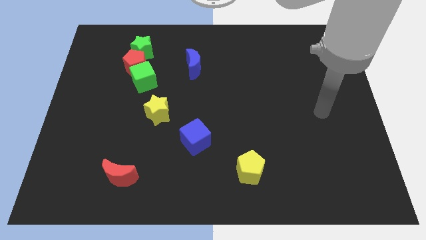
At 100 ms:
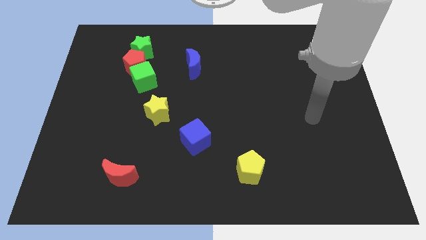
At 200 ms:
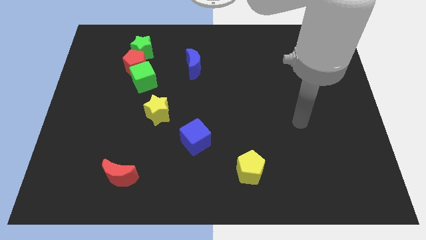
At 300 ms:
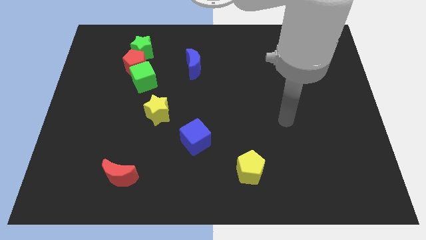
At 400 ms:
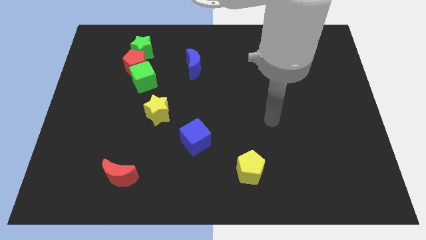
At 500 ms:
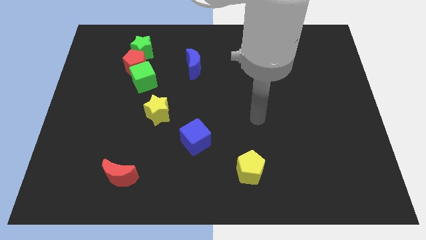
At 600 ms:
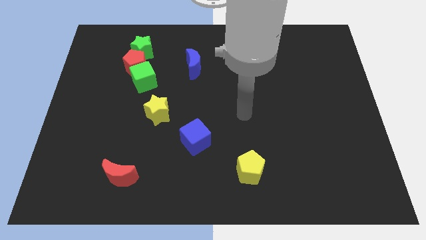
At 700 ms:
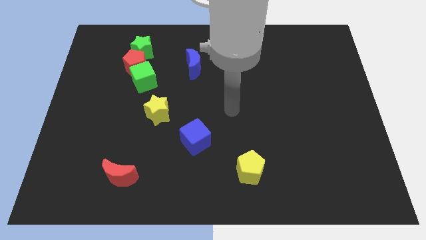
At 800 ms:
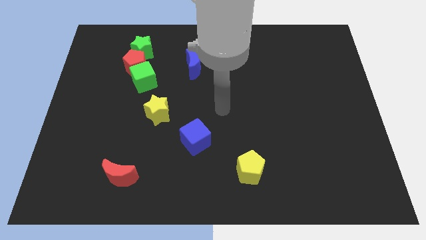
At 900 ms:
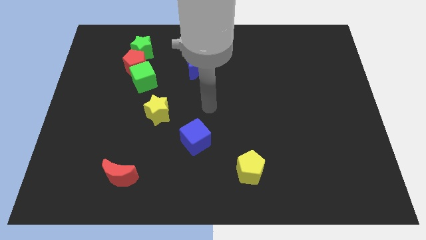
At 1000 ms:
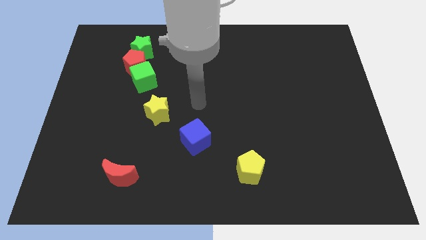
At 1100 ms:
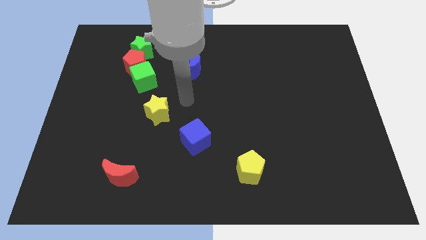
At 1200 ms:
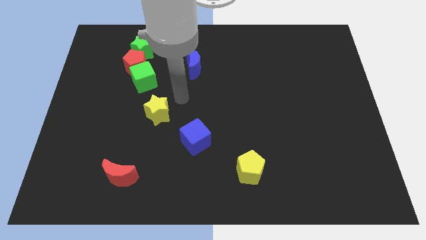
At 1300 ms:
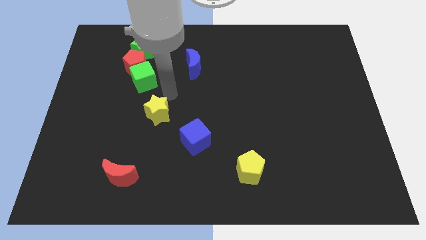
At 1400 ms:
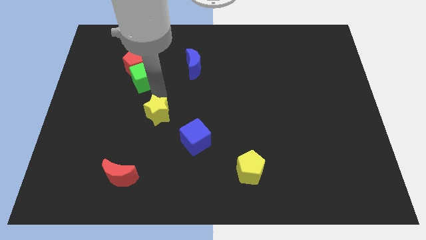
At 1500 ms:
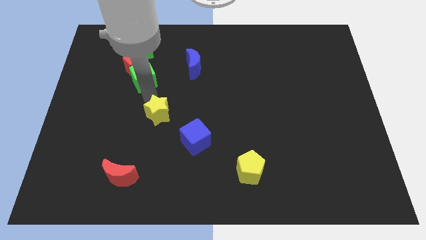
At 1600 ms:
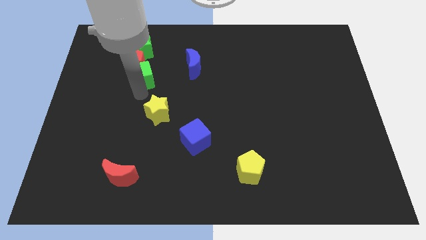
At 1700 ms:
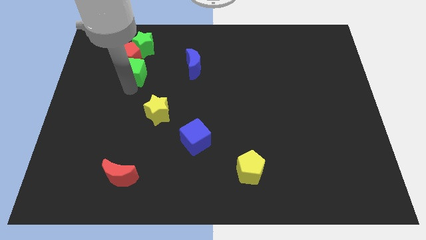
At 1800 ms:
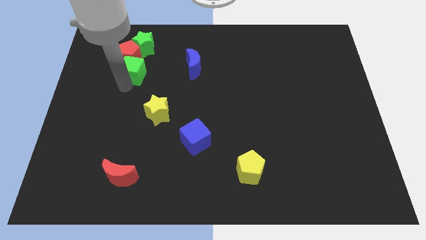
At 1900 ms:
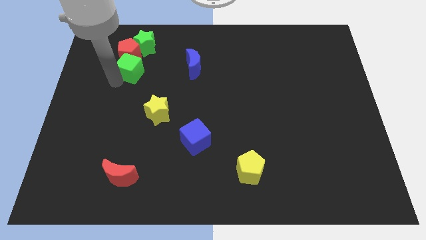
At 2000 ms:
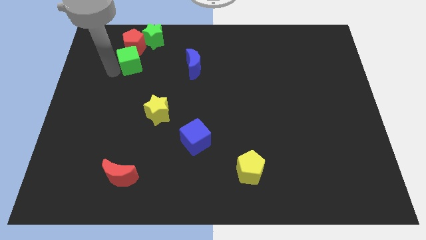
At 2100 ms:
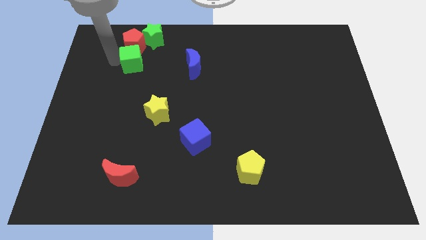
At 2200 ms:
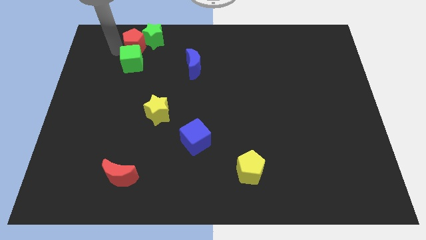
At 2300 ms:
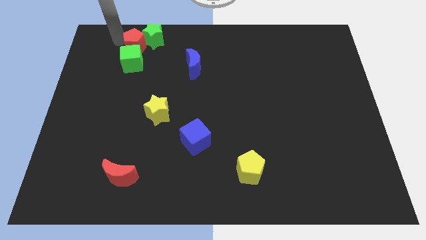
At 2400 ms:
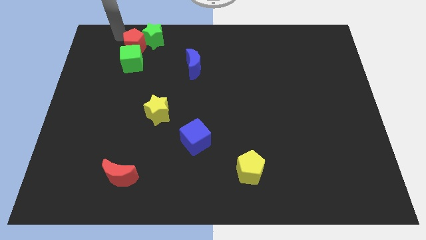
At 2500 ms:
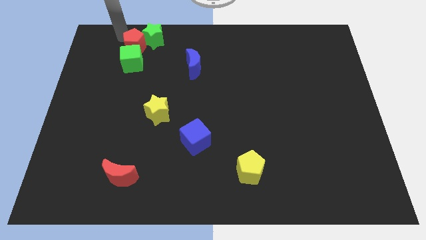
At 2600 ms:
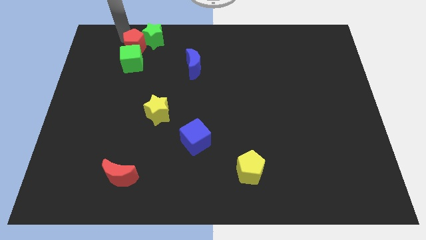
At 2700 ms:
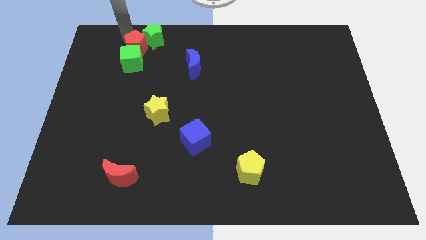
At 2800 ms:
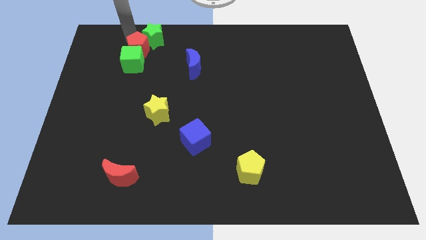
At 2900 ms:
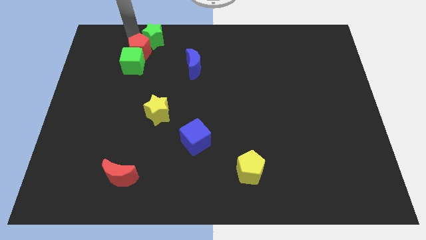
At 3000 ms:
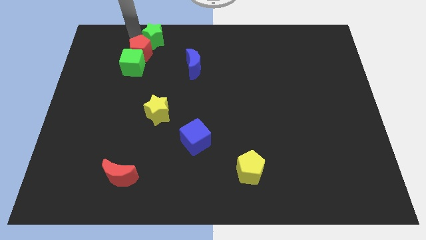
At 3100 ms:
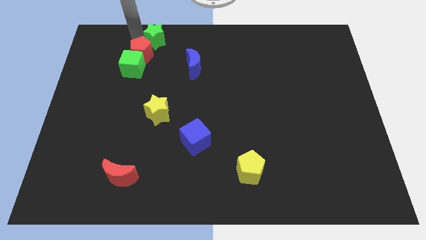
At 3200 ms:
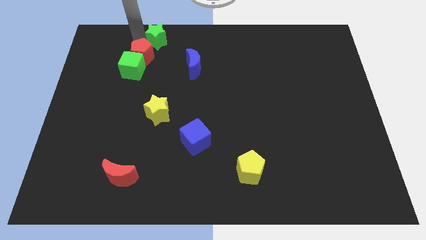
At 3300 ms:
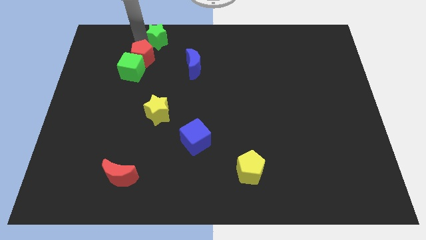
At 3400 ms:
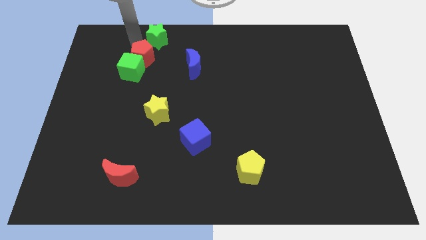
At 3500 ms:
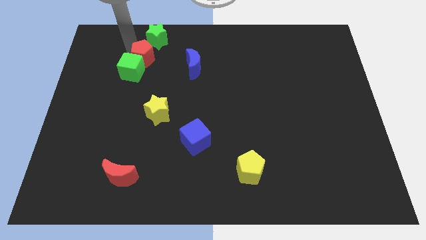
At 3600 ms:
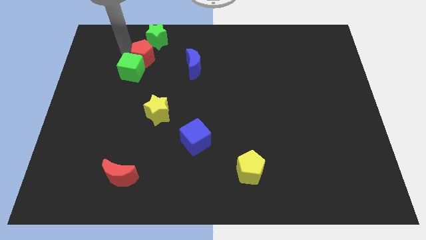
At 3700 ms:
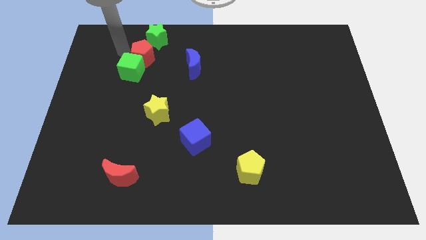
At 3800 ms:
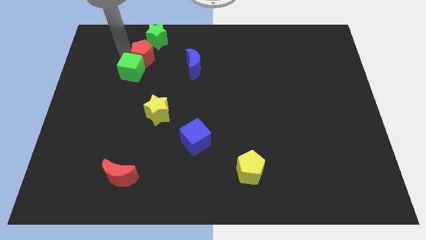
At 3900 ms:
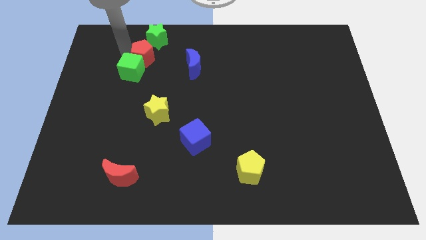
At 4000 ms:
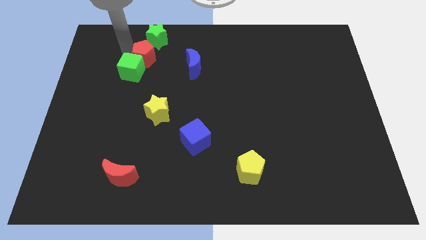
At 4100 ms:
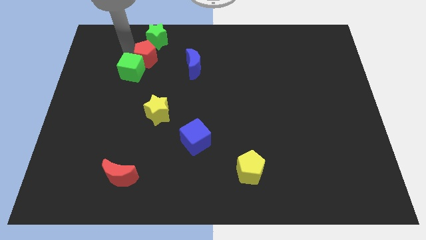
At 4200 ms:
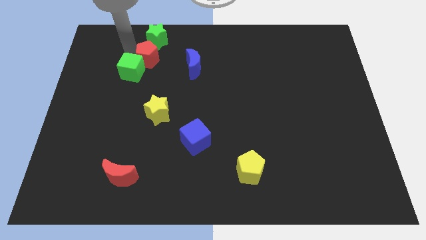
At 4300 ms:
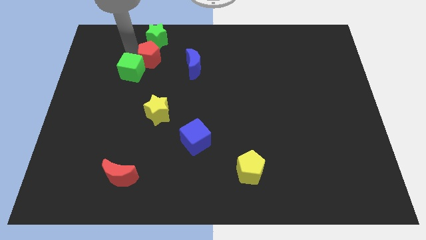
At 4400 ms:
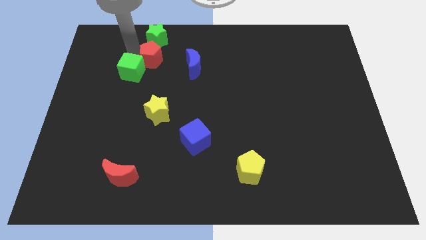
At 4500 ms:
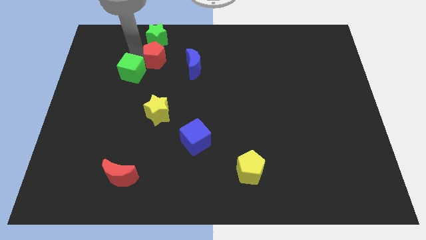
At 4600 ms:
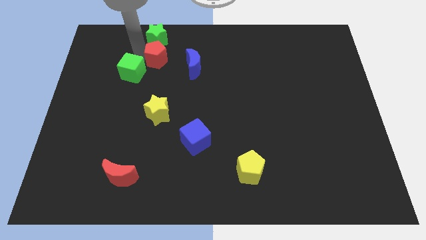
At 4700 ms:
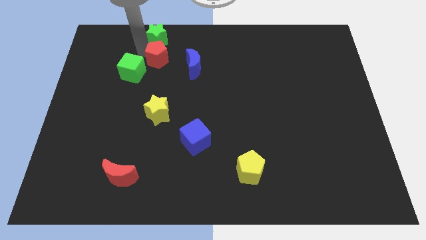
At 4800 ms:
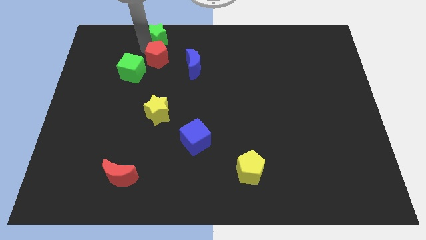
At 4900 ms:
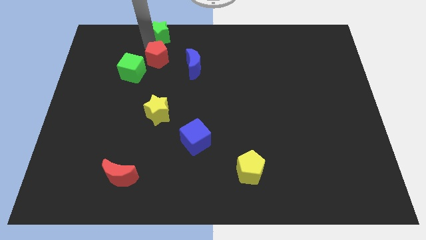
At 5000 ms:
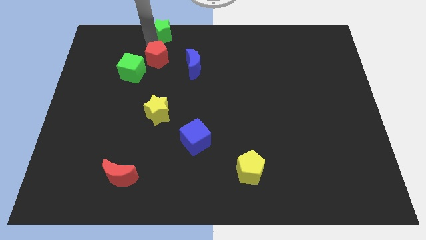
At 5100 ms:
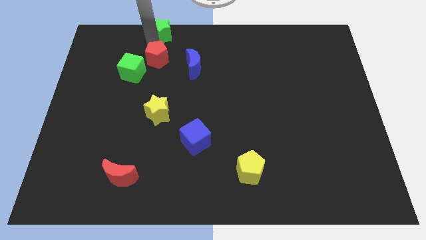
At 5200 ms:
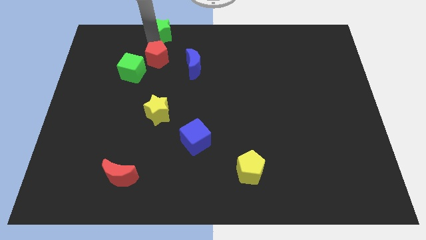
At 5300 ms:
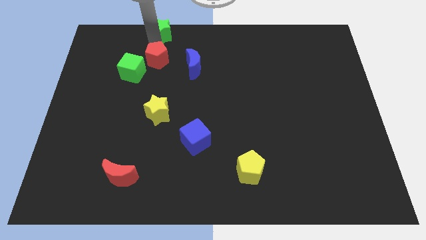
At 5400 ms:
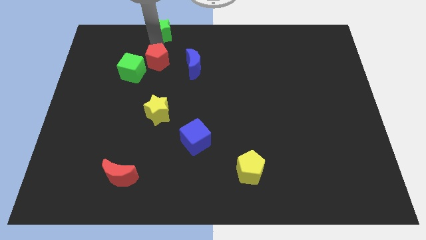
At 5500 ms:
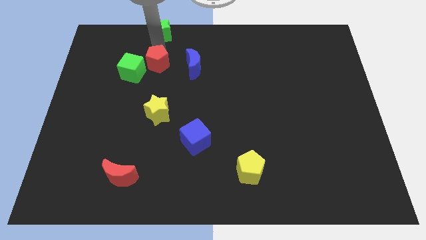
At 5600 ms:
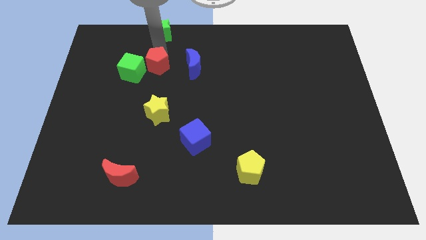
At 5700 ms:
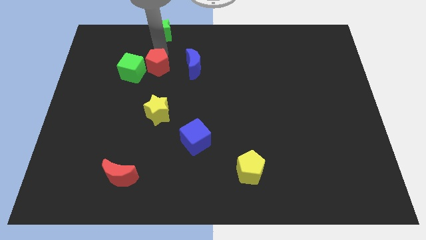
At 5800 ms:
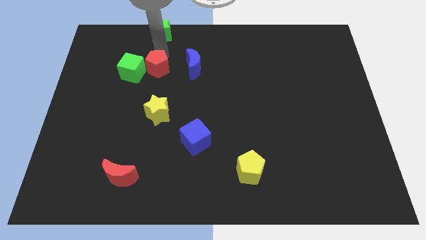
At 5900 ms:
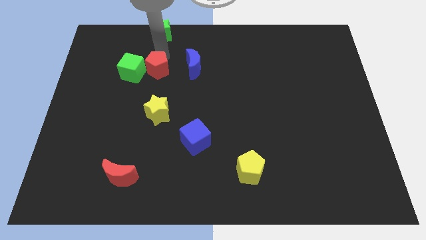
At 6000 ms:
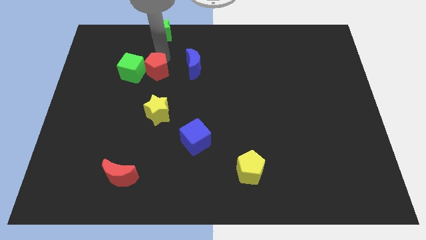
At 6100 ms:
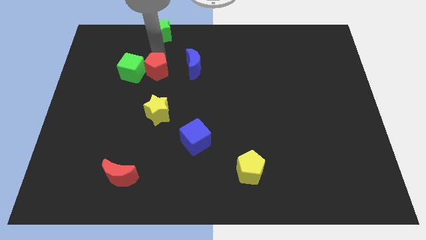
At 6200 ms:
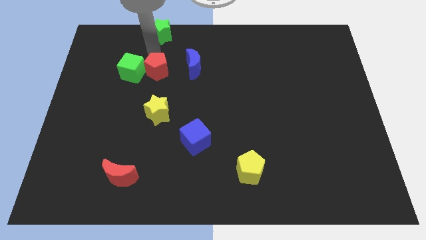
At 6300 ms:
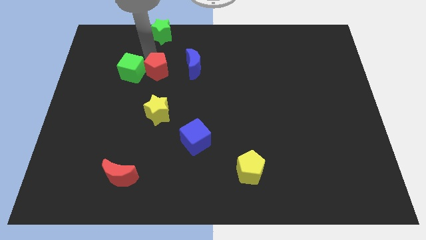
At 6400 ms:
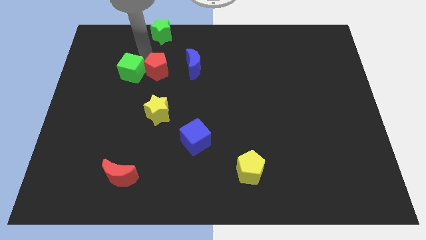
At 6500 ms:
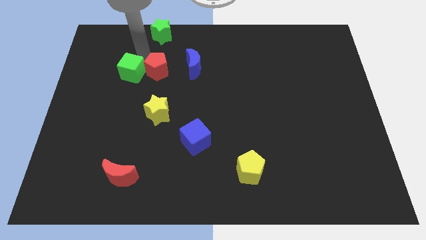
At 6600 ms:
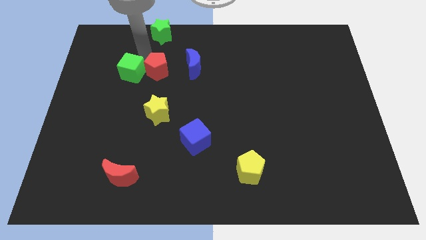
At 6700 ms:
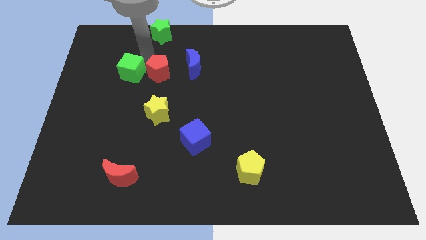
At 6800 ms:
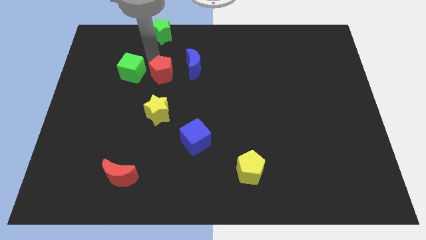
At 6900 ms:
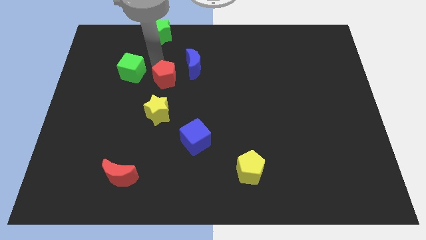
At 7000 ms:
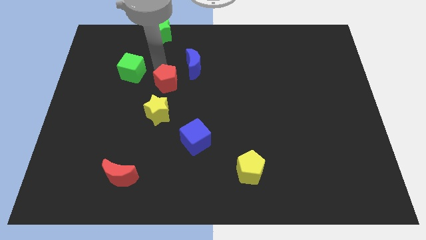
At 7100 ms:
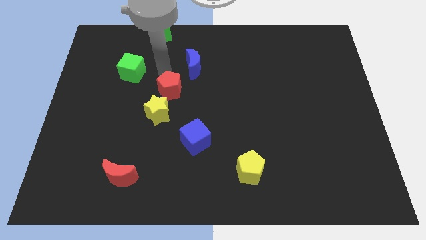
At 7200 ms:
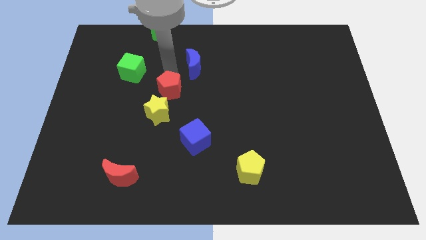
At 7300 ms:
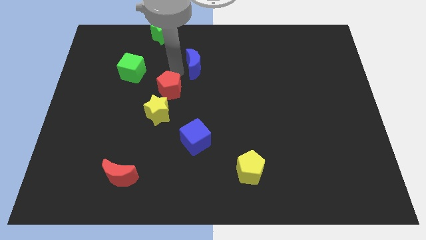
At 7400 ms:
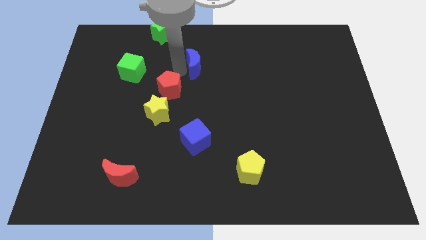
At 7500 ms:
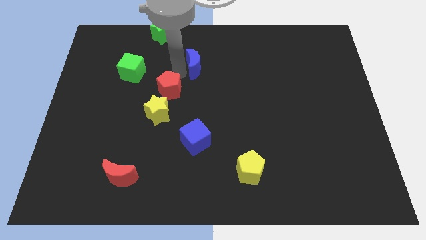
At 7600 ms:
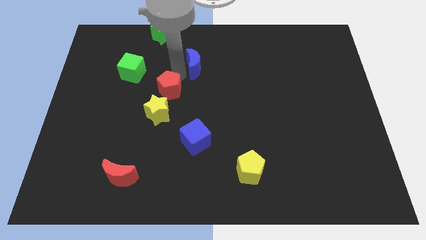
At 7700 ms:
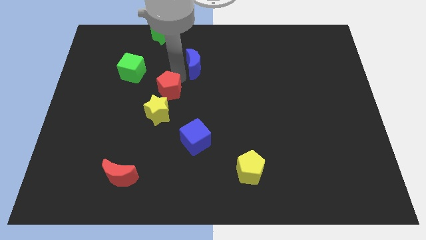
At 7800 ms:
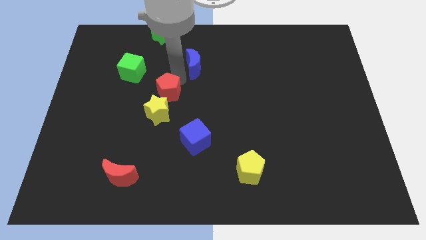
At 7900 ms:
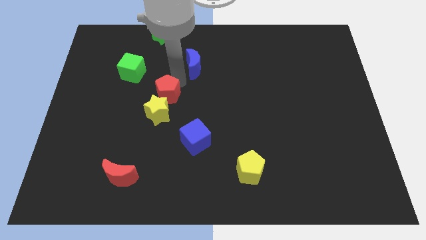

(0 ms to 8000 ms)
put the red pentagon next to the yellow star

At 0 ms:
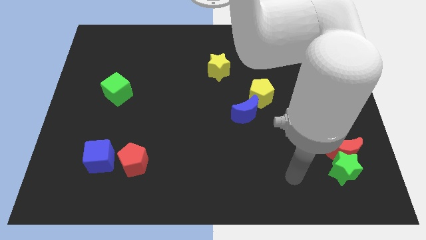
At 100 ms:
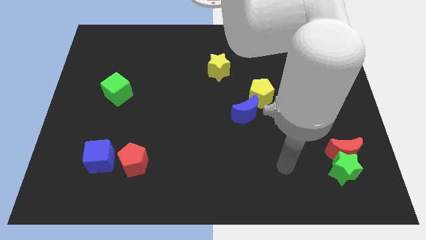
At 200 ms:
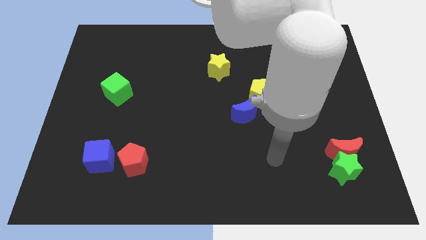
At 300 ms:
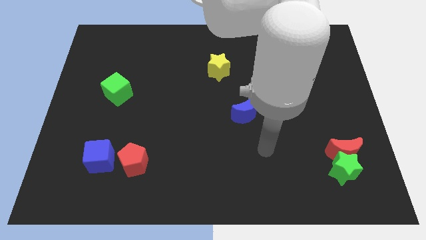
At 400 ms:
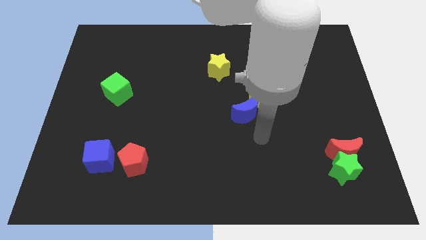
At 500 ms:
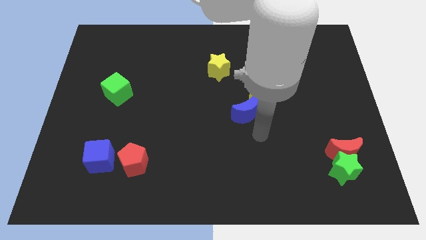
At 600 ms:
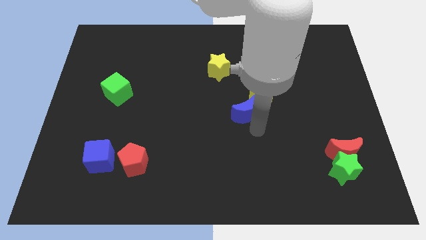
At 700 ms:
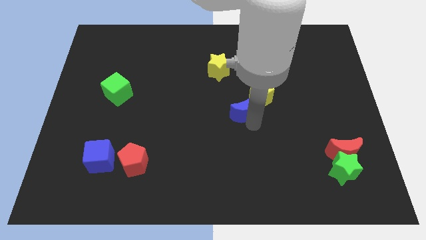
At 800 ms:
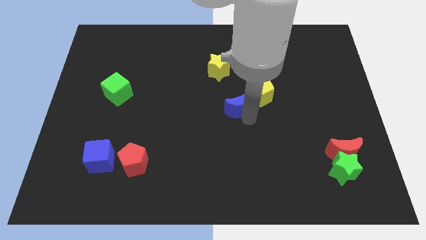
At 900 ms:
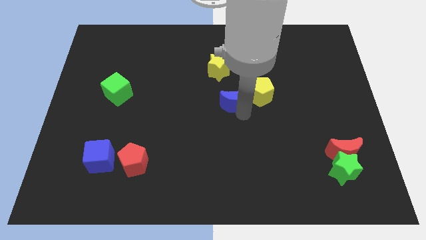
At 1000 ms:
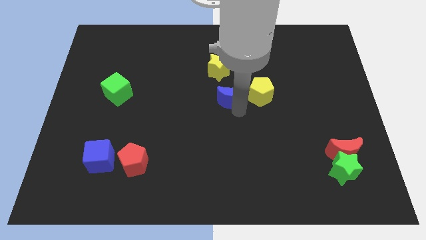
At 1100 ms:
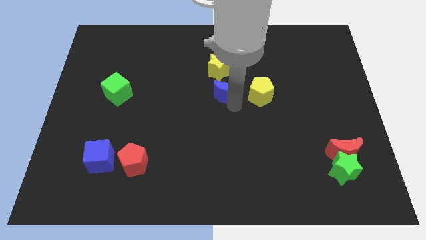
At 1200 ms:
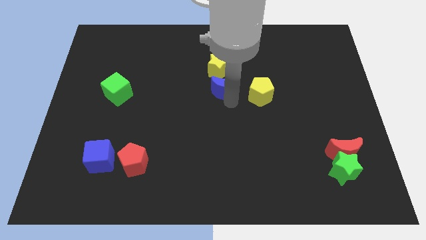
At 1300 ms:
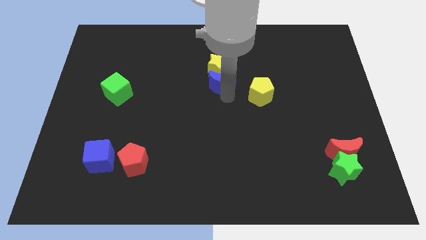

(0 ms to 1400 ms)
put the blue moon next to the yellow star
